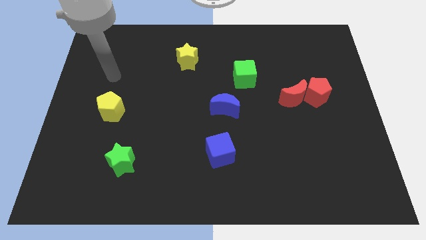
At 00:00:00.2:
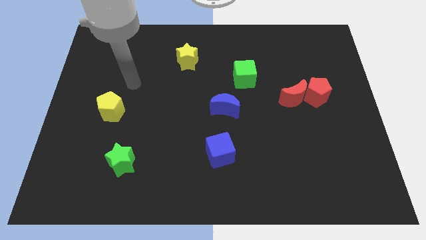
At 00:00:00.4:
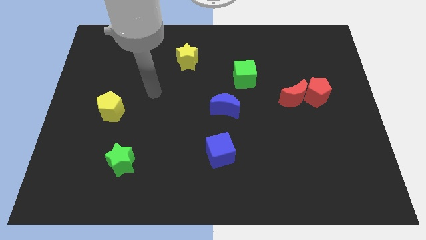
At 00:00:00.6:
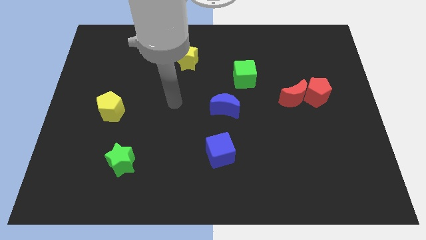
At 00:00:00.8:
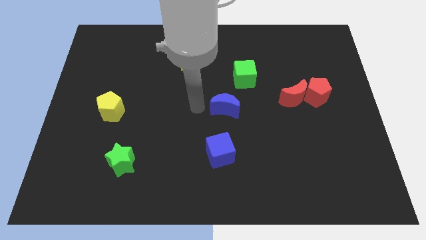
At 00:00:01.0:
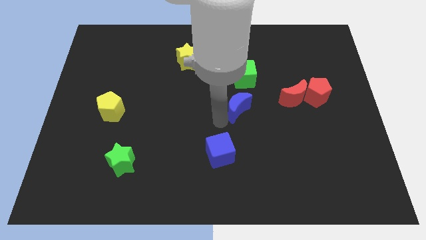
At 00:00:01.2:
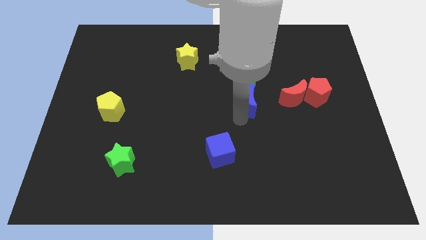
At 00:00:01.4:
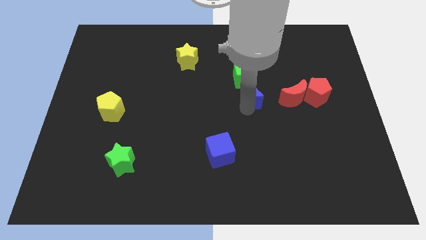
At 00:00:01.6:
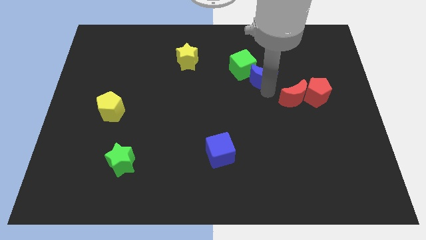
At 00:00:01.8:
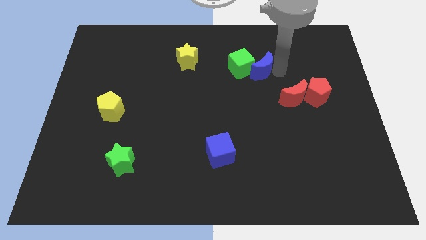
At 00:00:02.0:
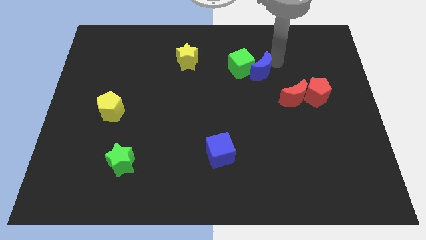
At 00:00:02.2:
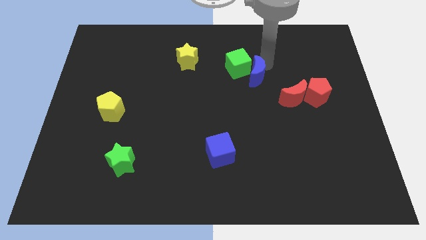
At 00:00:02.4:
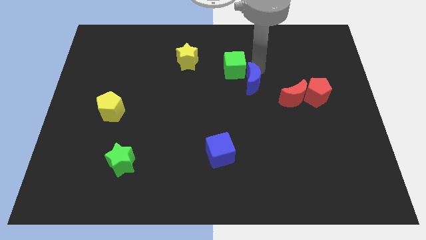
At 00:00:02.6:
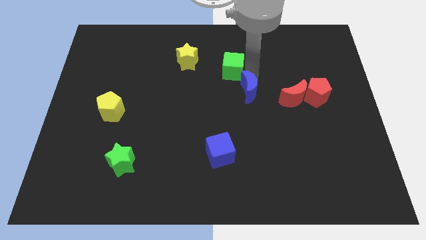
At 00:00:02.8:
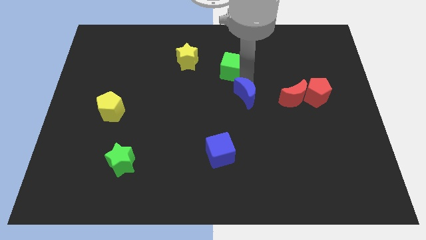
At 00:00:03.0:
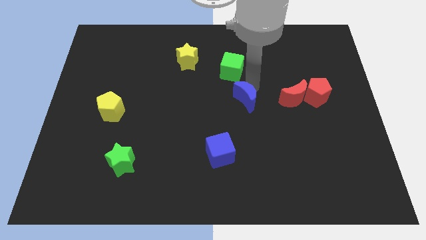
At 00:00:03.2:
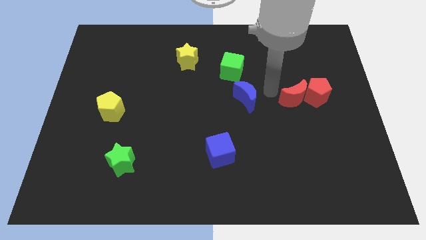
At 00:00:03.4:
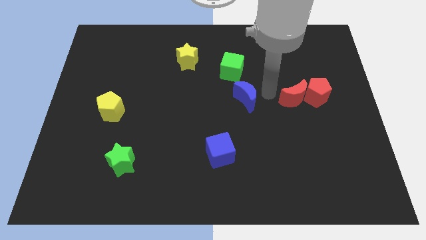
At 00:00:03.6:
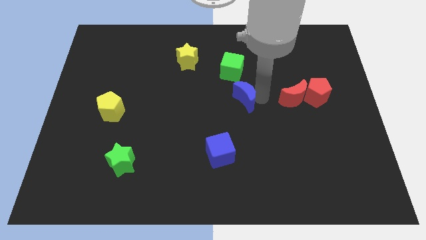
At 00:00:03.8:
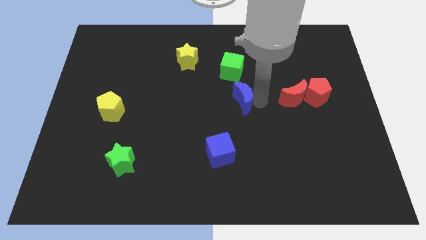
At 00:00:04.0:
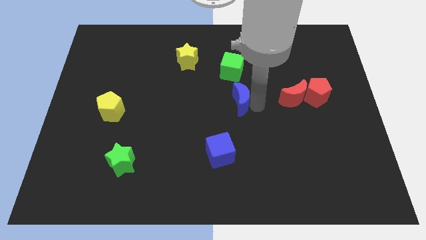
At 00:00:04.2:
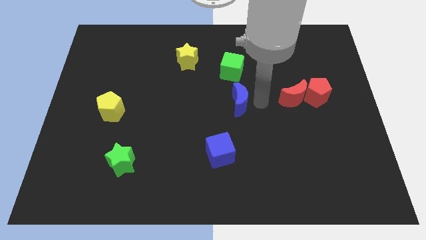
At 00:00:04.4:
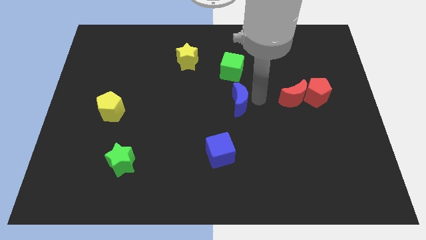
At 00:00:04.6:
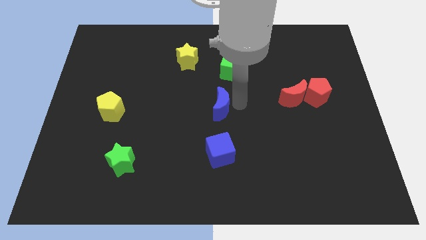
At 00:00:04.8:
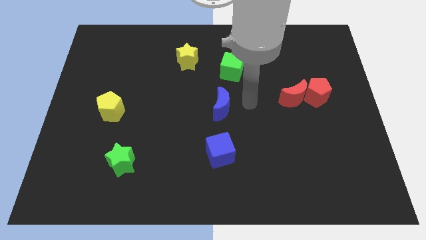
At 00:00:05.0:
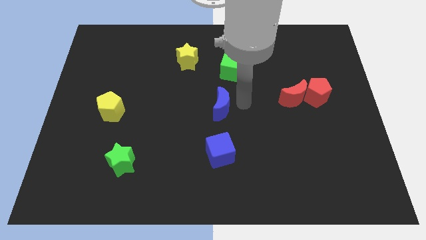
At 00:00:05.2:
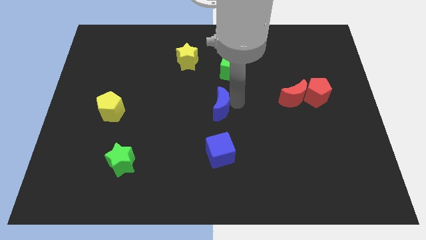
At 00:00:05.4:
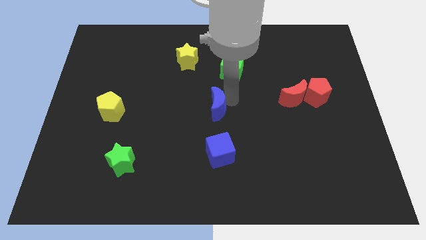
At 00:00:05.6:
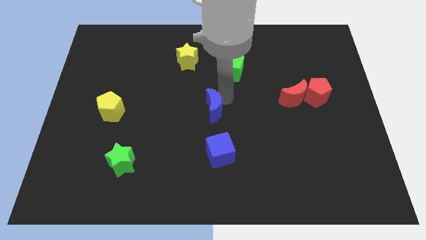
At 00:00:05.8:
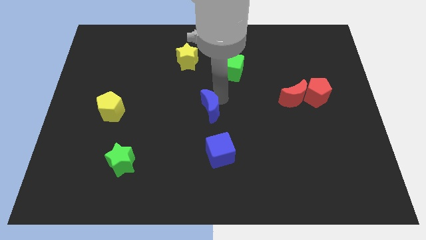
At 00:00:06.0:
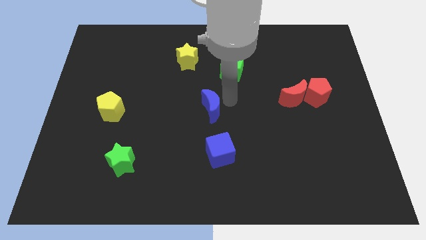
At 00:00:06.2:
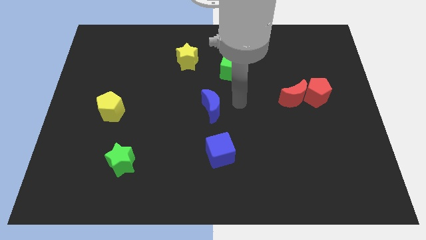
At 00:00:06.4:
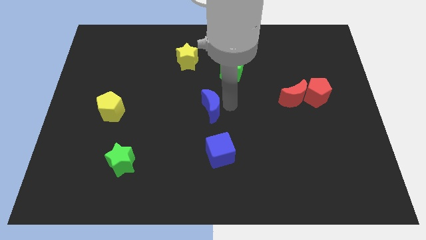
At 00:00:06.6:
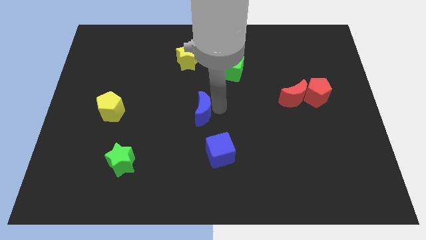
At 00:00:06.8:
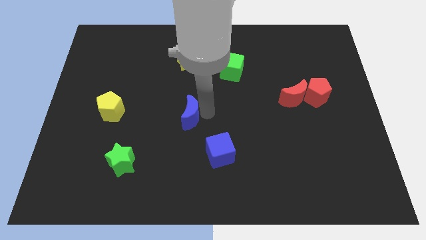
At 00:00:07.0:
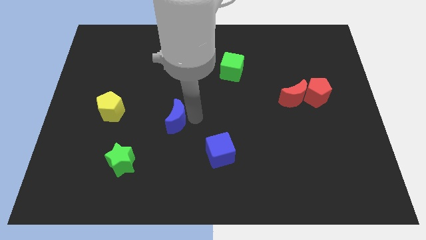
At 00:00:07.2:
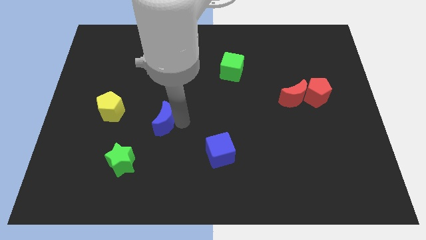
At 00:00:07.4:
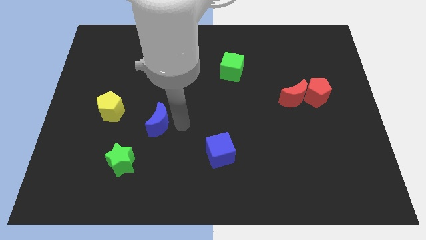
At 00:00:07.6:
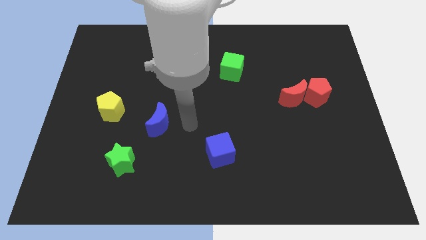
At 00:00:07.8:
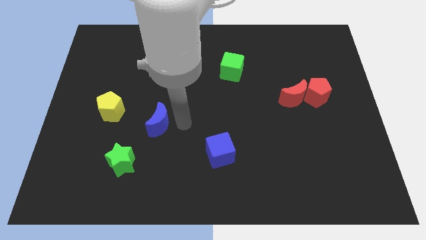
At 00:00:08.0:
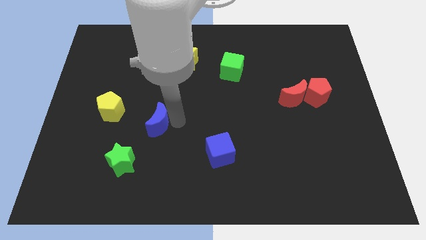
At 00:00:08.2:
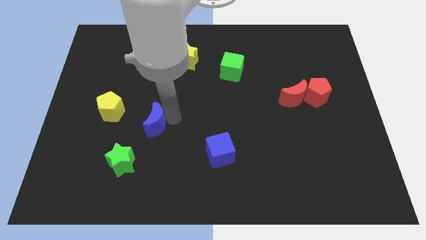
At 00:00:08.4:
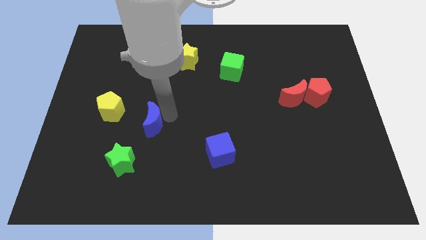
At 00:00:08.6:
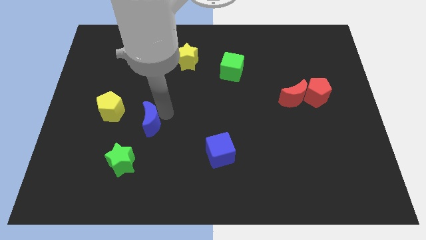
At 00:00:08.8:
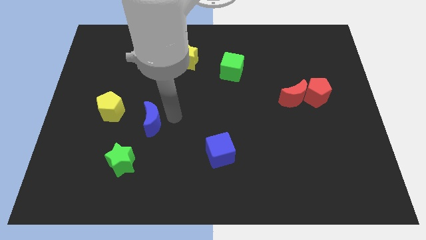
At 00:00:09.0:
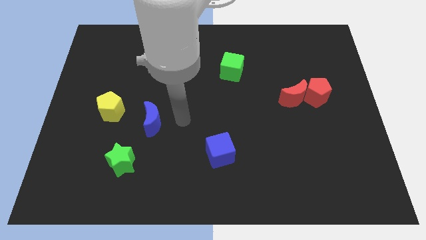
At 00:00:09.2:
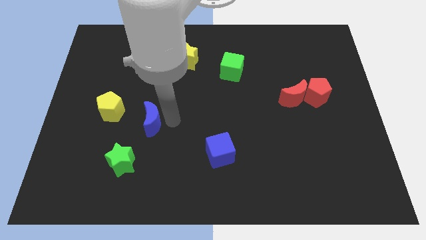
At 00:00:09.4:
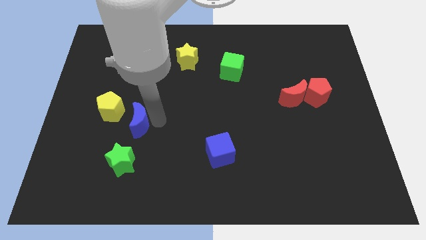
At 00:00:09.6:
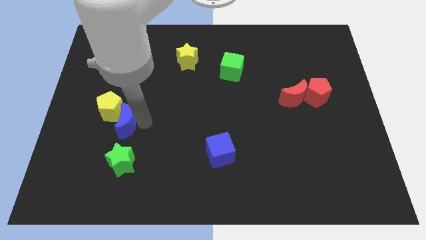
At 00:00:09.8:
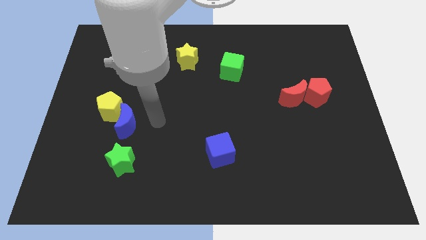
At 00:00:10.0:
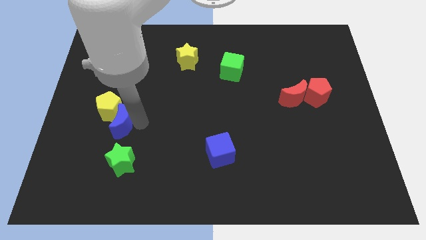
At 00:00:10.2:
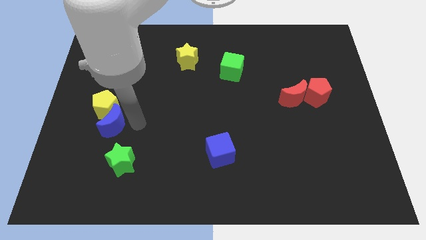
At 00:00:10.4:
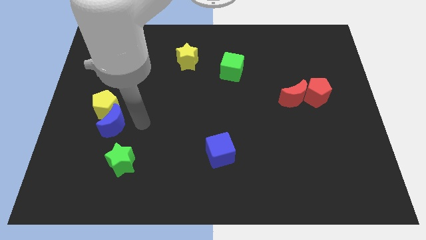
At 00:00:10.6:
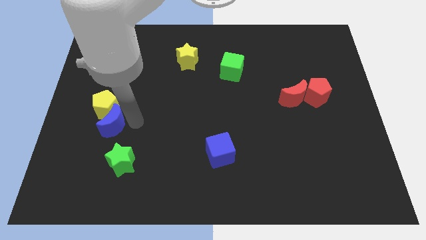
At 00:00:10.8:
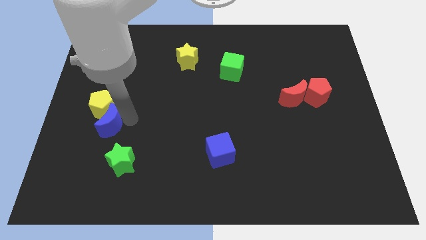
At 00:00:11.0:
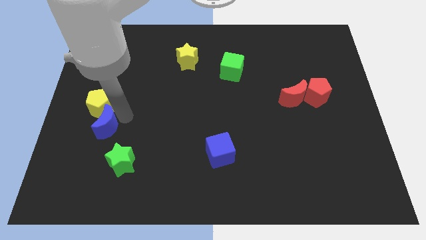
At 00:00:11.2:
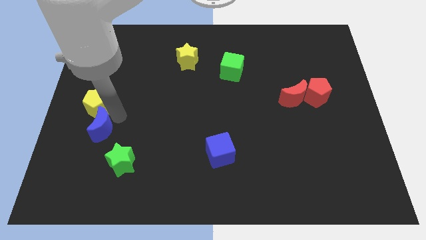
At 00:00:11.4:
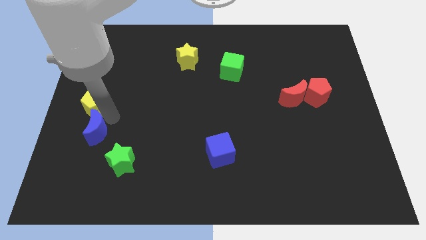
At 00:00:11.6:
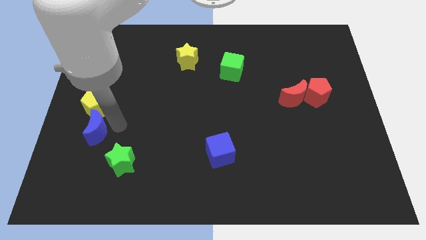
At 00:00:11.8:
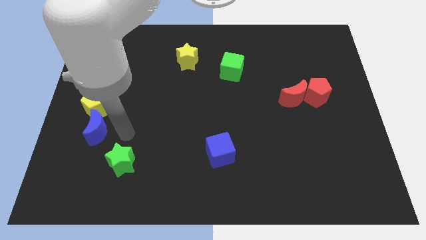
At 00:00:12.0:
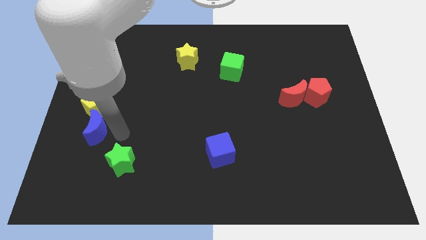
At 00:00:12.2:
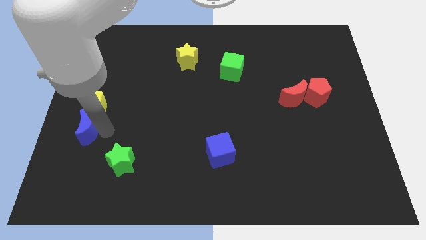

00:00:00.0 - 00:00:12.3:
put the blue moon to the bottom left of the yellow pentagon

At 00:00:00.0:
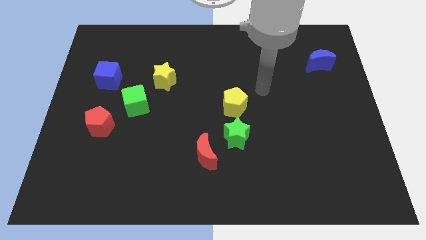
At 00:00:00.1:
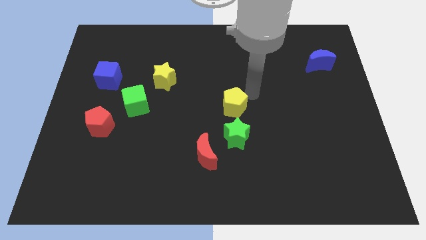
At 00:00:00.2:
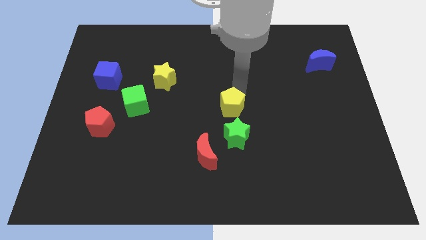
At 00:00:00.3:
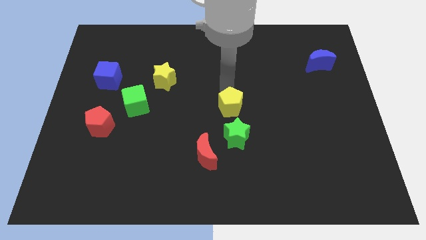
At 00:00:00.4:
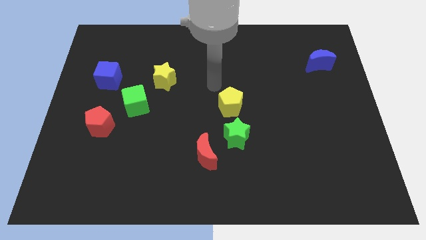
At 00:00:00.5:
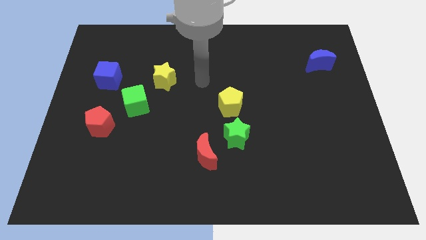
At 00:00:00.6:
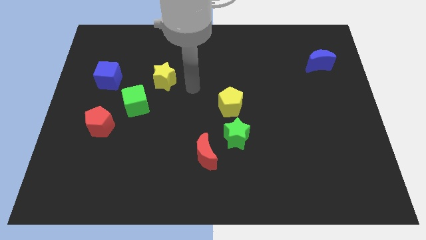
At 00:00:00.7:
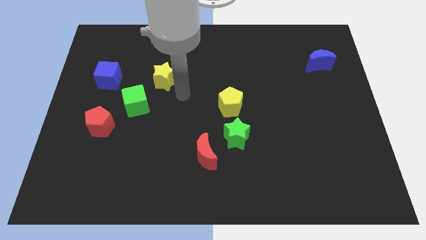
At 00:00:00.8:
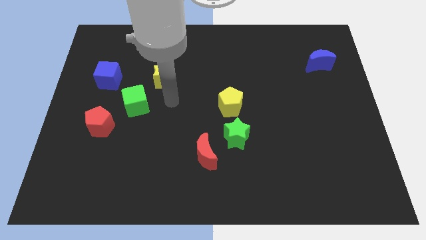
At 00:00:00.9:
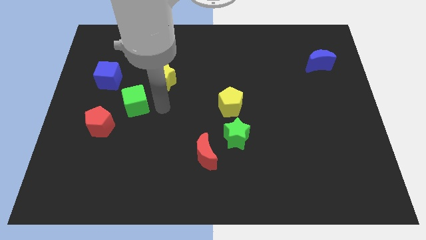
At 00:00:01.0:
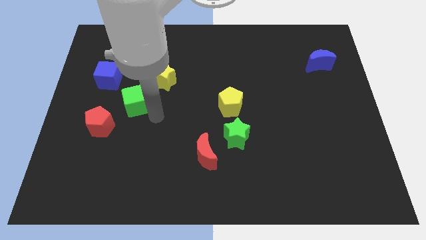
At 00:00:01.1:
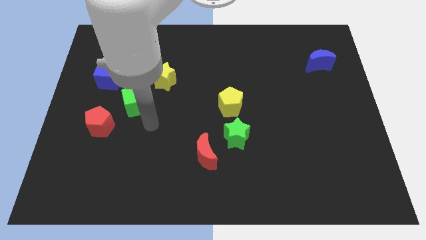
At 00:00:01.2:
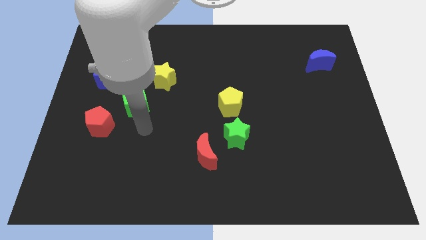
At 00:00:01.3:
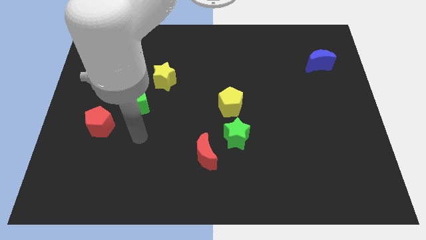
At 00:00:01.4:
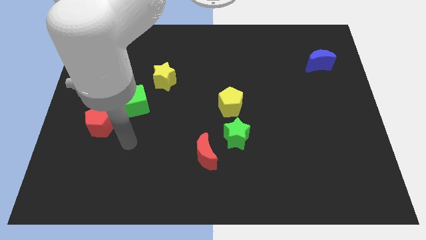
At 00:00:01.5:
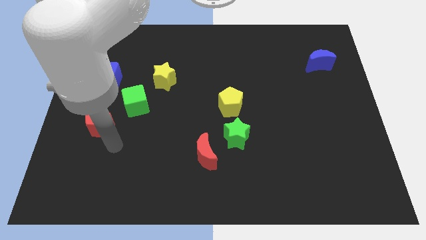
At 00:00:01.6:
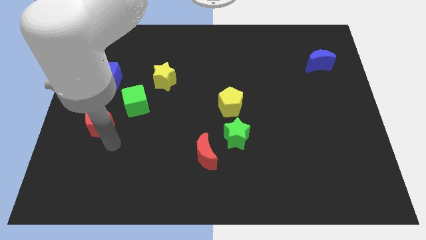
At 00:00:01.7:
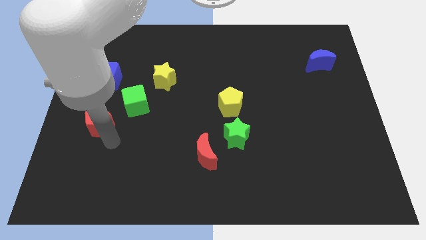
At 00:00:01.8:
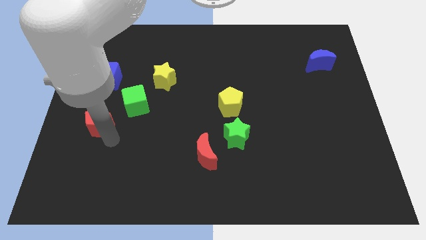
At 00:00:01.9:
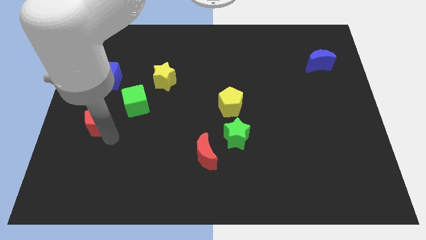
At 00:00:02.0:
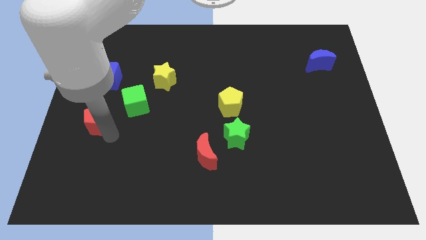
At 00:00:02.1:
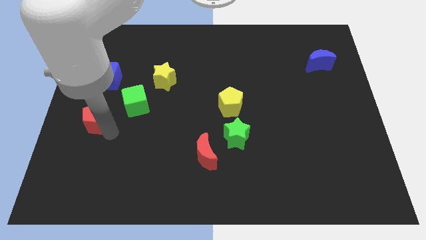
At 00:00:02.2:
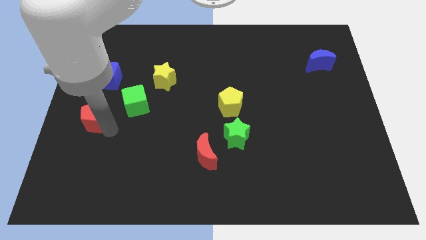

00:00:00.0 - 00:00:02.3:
push the red pentagon to the left of the green cube
